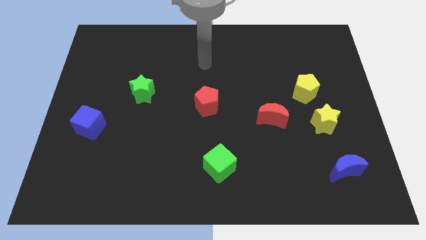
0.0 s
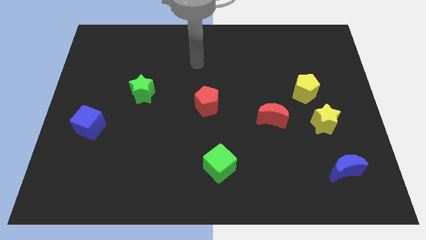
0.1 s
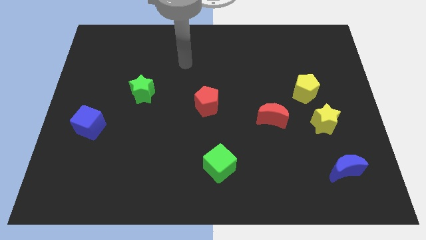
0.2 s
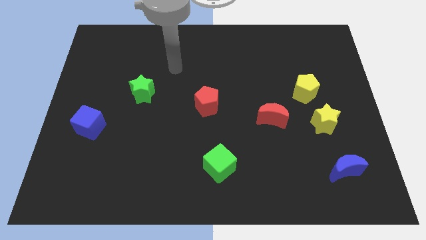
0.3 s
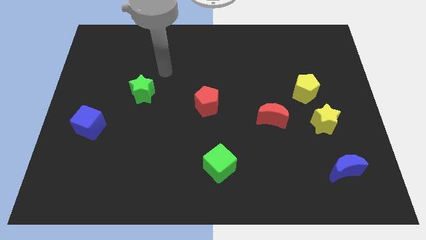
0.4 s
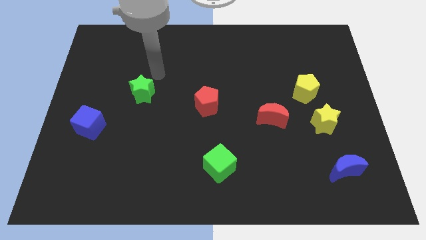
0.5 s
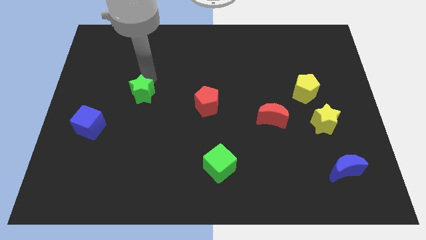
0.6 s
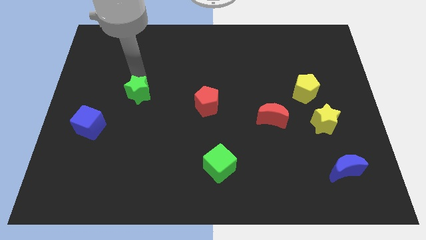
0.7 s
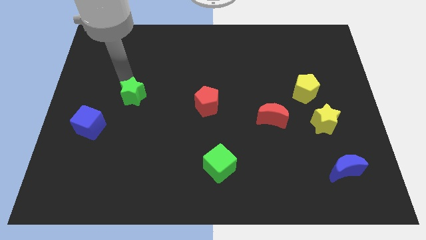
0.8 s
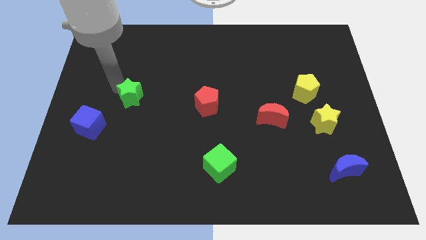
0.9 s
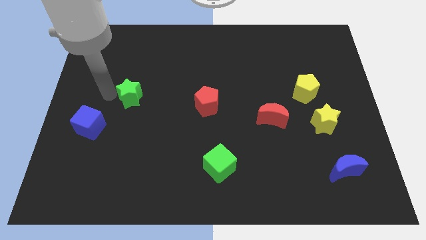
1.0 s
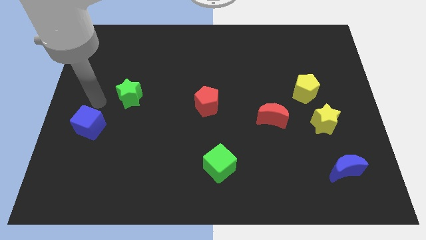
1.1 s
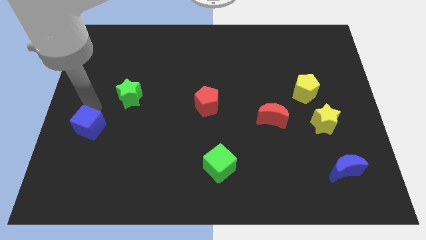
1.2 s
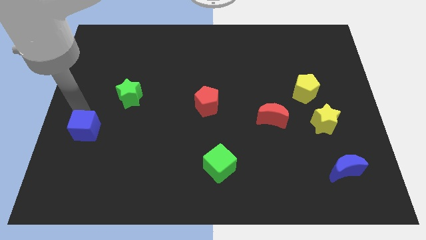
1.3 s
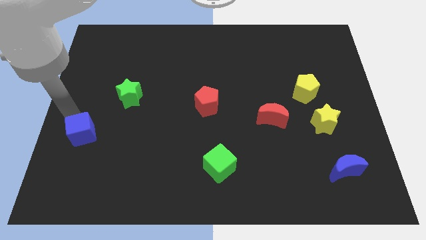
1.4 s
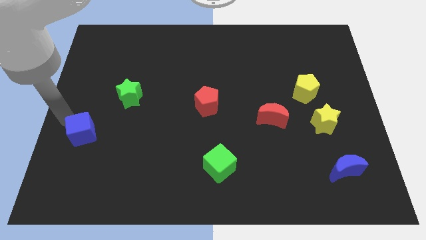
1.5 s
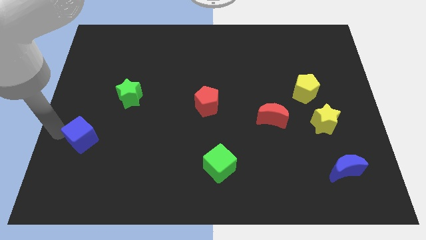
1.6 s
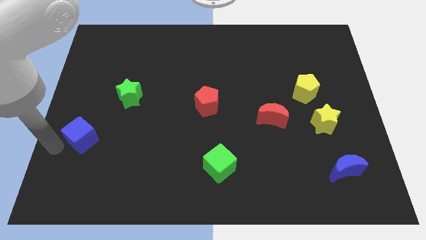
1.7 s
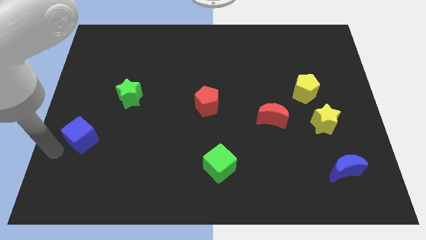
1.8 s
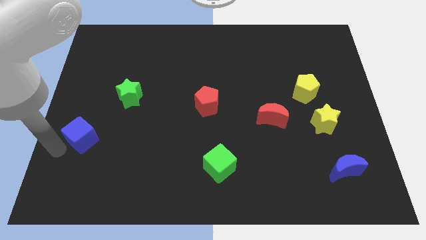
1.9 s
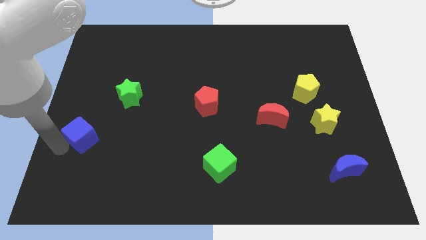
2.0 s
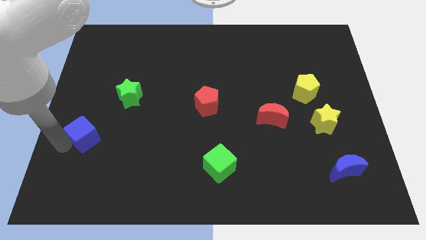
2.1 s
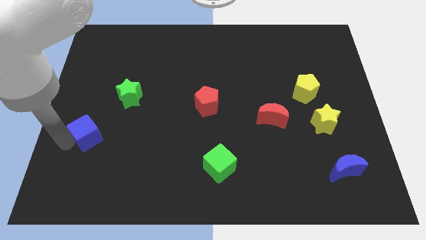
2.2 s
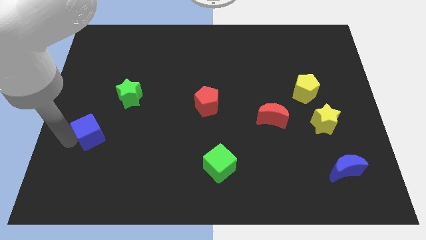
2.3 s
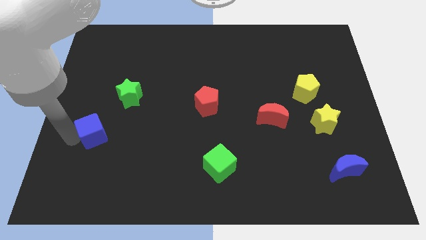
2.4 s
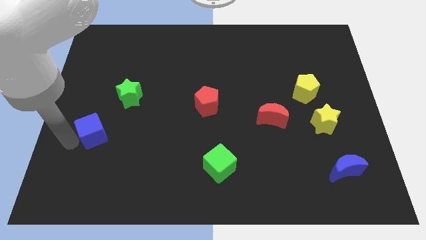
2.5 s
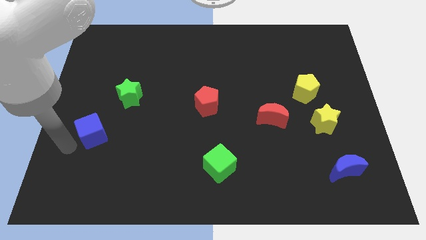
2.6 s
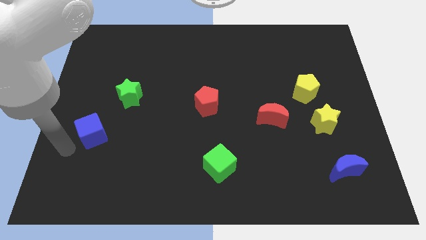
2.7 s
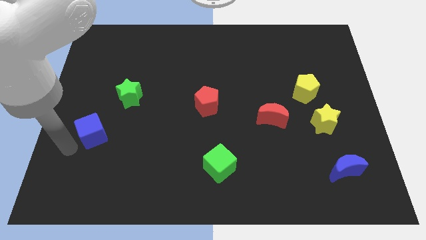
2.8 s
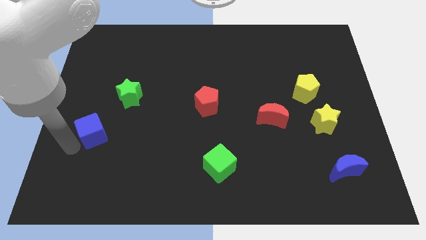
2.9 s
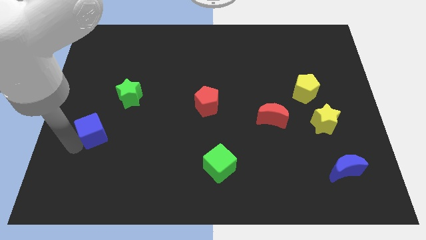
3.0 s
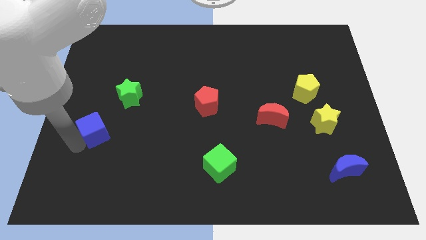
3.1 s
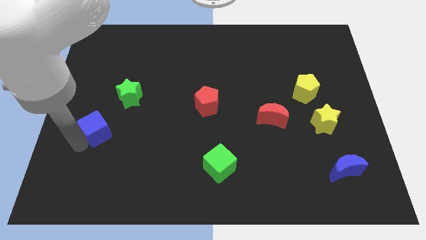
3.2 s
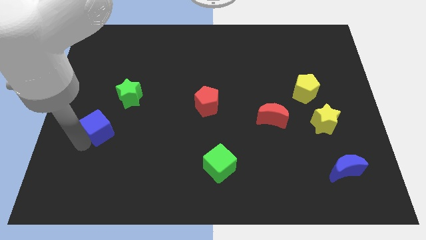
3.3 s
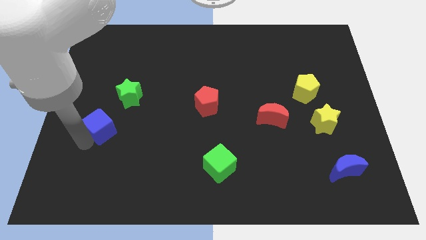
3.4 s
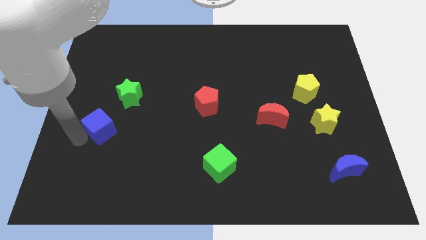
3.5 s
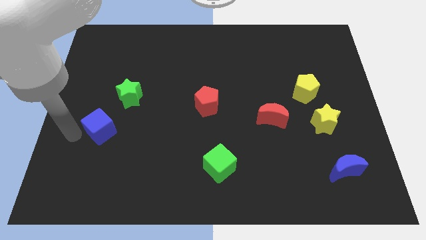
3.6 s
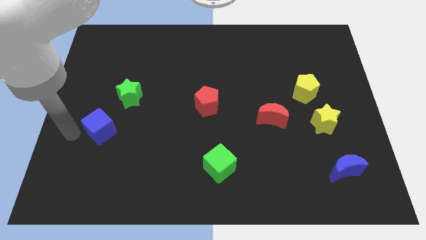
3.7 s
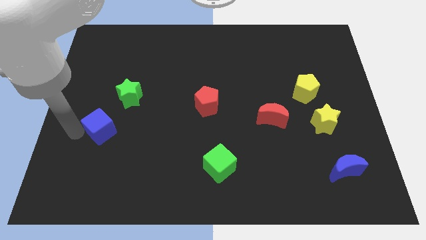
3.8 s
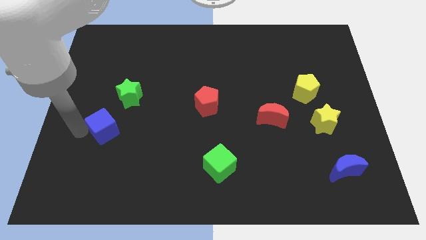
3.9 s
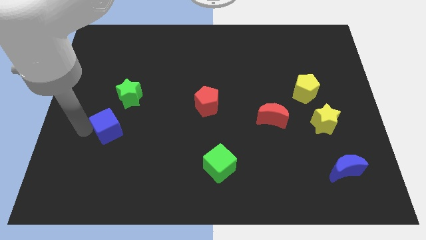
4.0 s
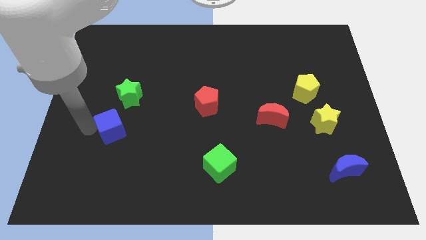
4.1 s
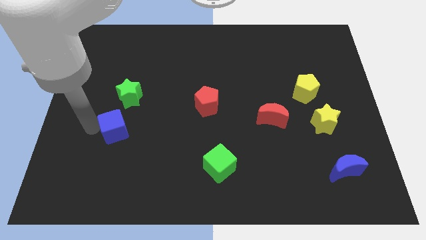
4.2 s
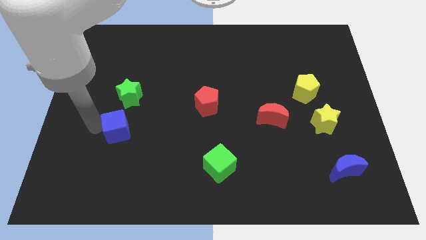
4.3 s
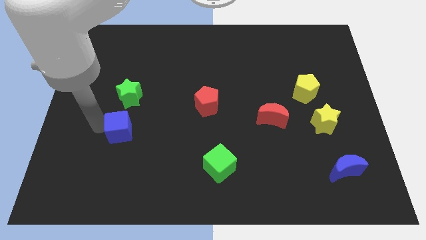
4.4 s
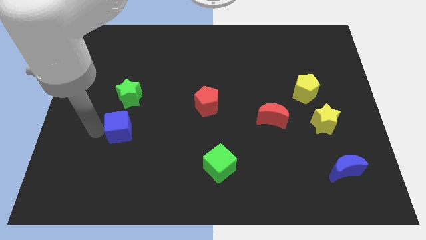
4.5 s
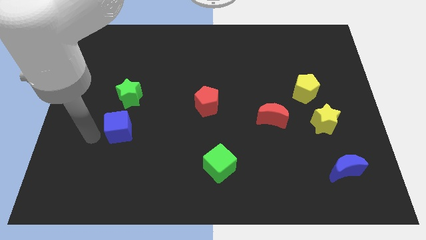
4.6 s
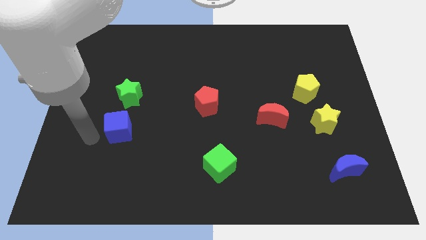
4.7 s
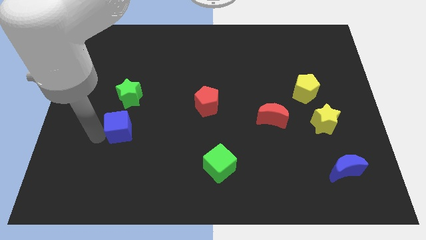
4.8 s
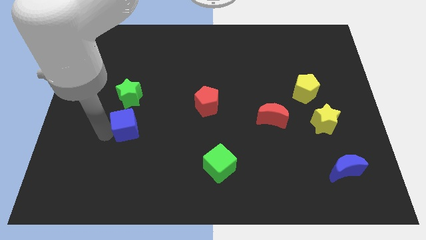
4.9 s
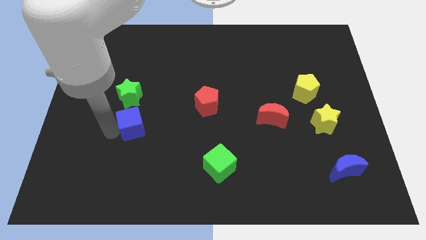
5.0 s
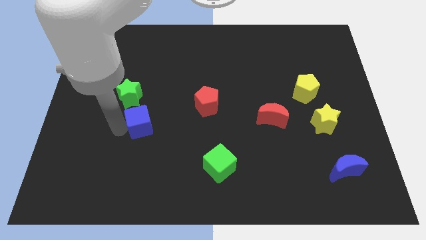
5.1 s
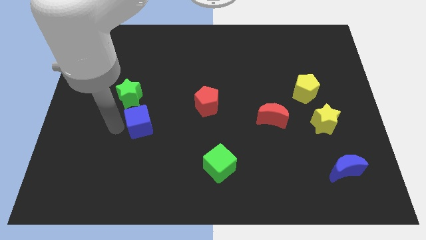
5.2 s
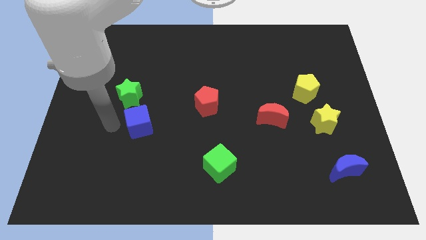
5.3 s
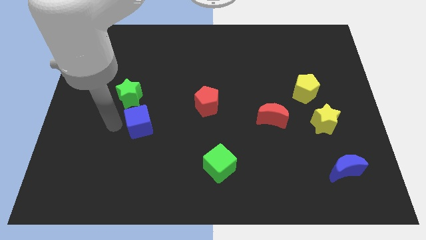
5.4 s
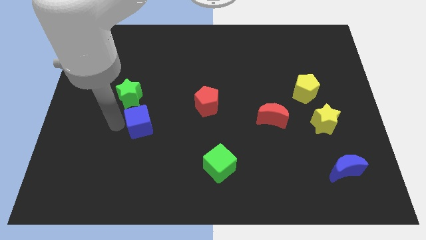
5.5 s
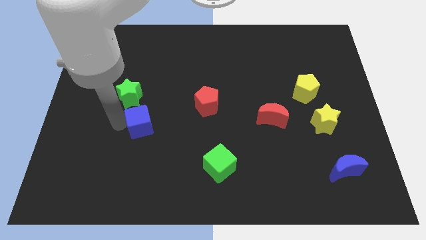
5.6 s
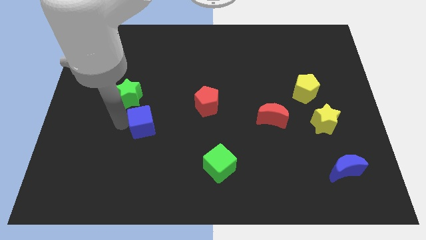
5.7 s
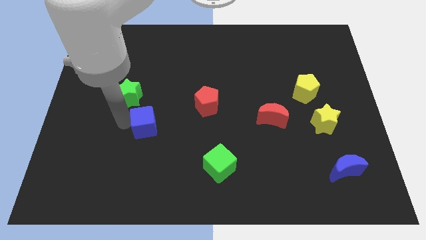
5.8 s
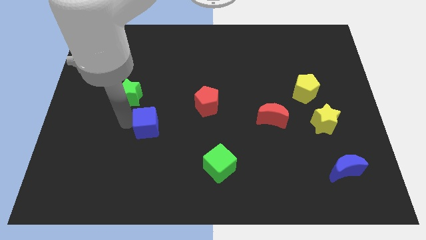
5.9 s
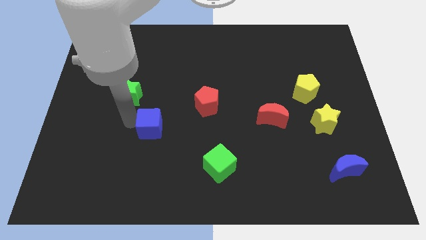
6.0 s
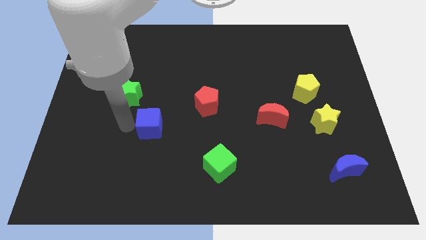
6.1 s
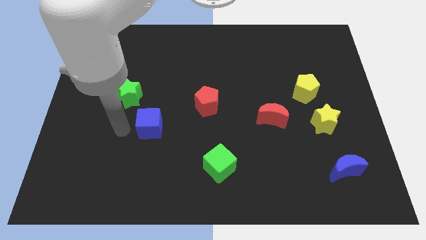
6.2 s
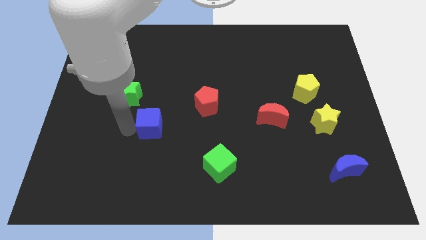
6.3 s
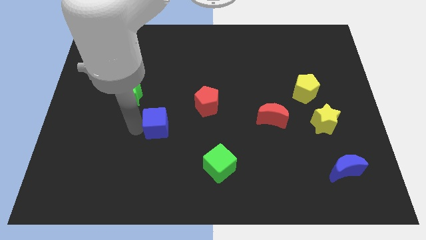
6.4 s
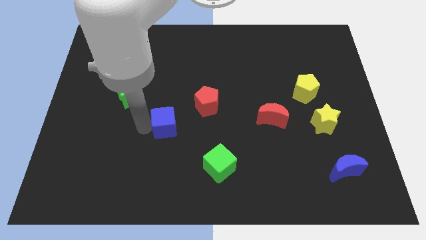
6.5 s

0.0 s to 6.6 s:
slide the blue cube diagonally down and to the left of the red pentagon
